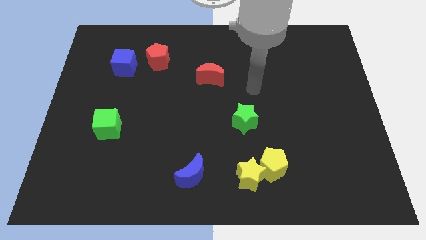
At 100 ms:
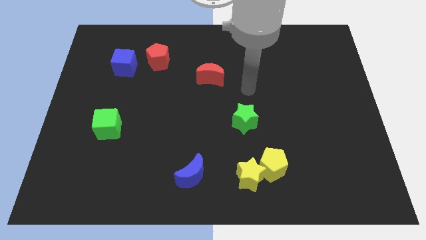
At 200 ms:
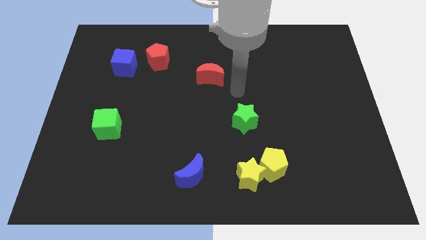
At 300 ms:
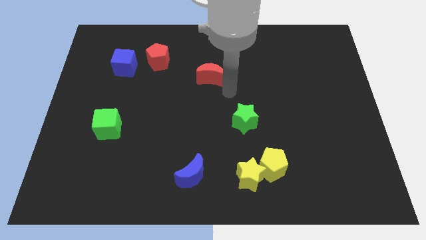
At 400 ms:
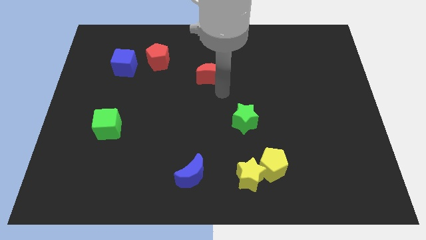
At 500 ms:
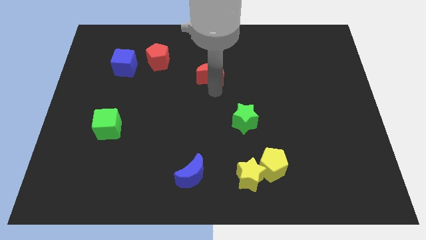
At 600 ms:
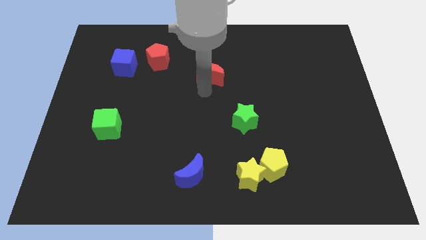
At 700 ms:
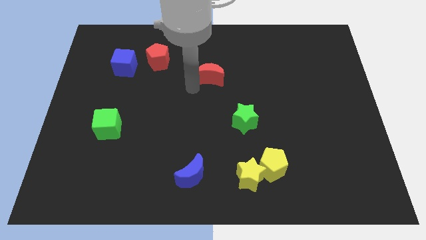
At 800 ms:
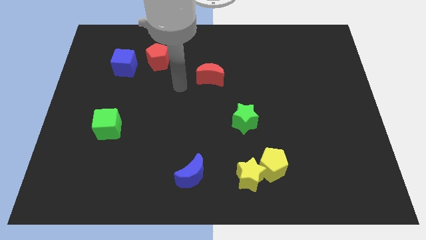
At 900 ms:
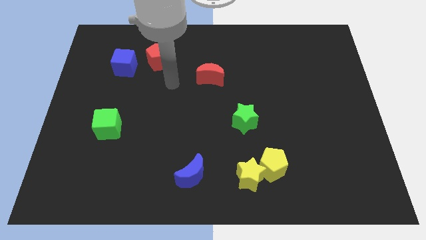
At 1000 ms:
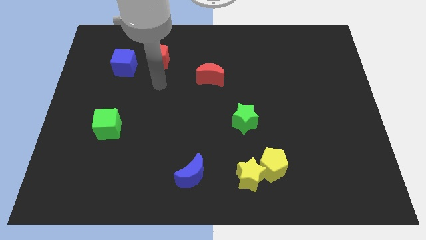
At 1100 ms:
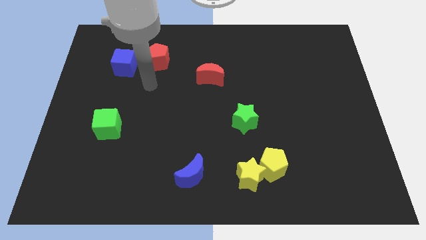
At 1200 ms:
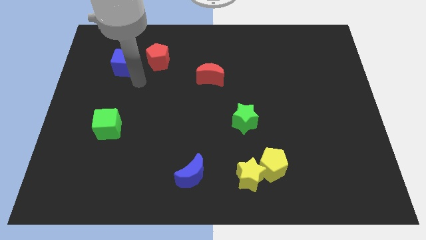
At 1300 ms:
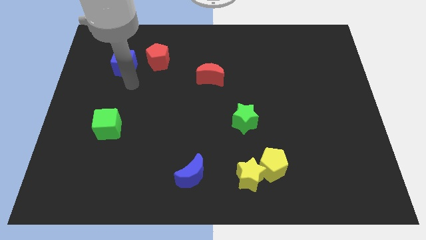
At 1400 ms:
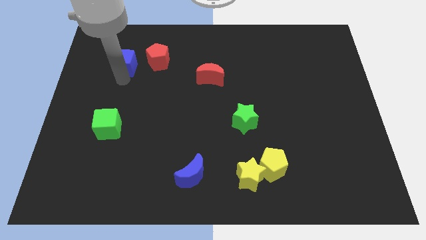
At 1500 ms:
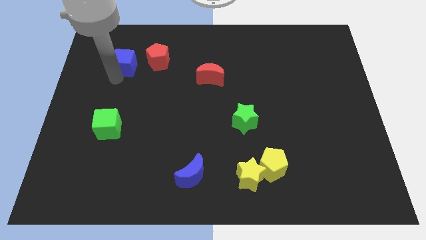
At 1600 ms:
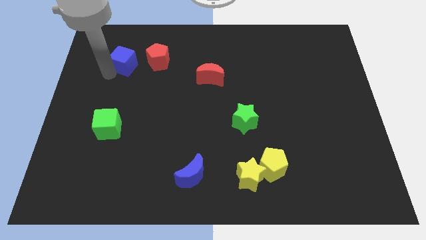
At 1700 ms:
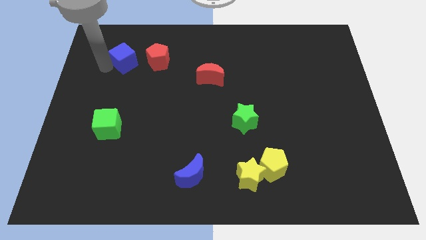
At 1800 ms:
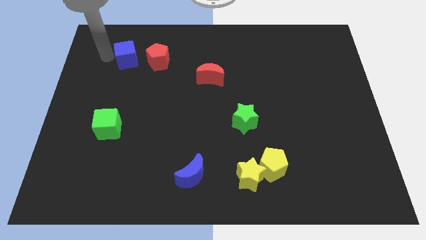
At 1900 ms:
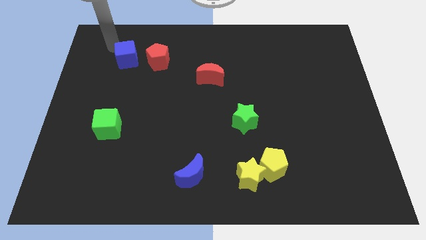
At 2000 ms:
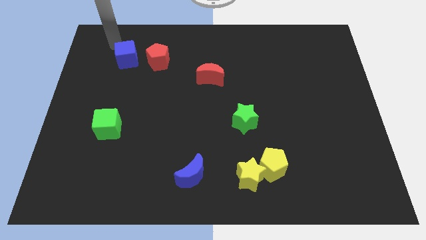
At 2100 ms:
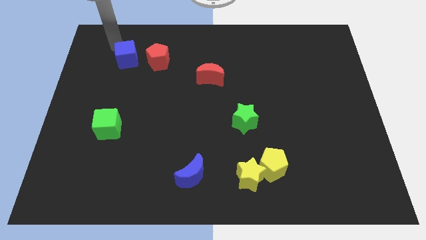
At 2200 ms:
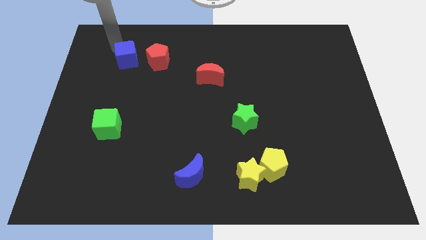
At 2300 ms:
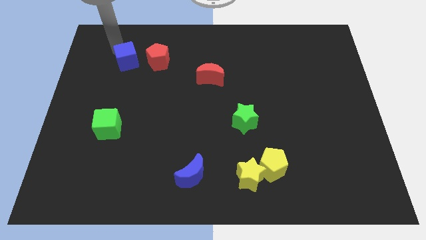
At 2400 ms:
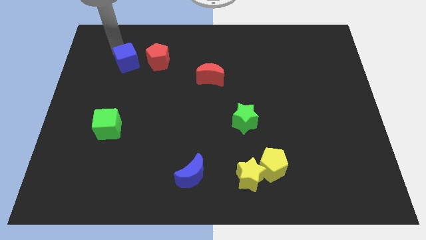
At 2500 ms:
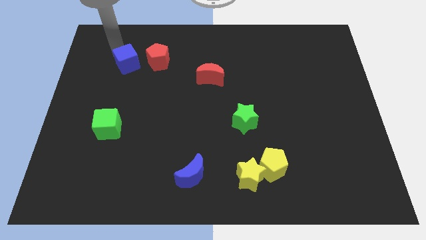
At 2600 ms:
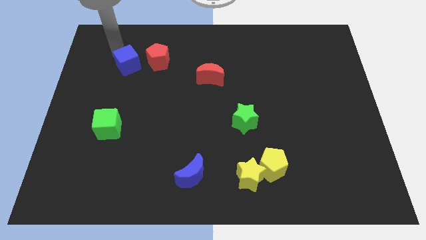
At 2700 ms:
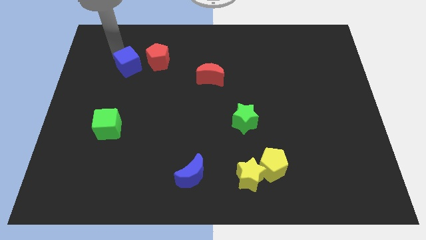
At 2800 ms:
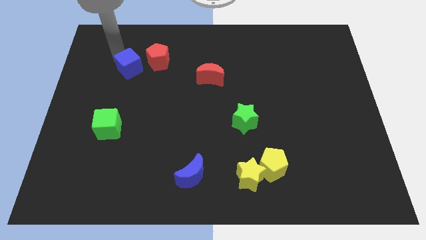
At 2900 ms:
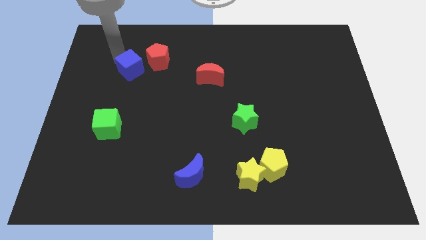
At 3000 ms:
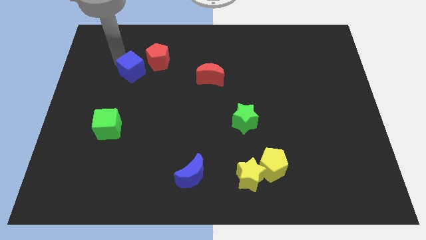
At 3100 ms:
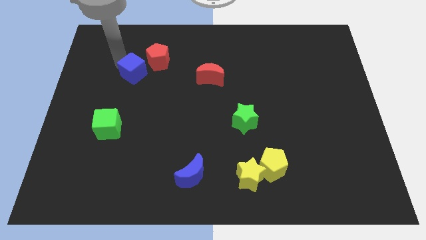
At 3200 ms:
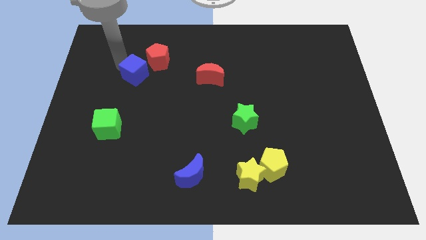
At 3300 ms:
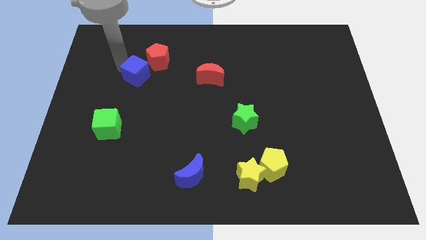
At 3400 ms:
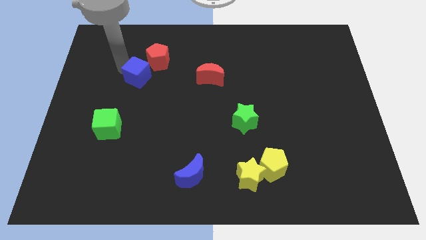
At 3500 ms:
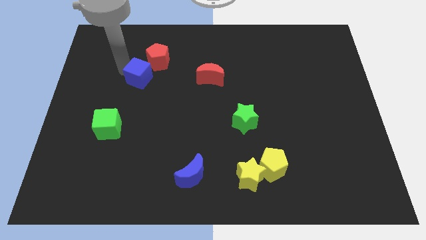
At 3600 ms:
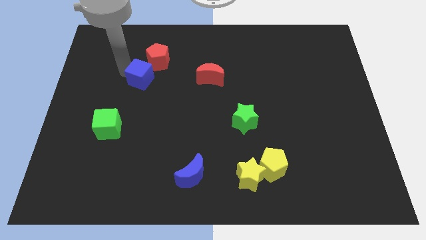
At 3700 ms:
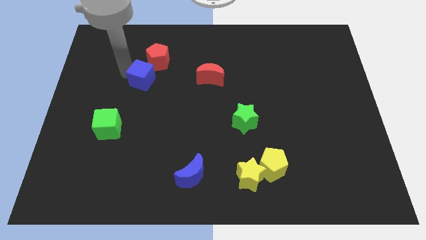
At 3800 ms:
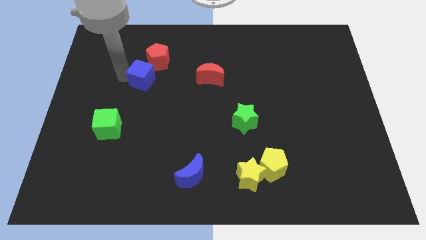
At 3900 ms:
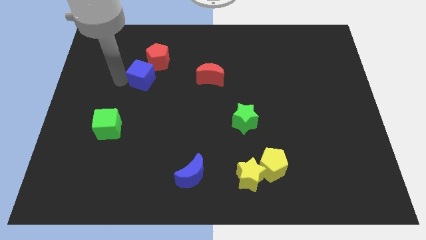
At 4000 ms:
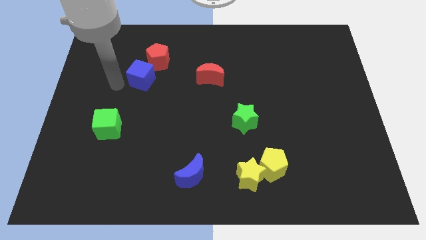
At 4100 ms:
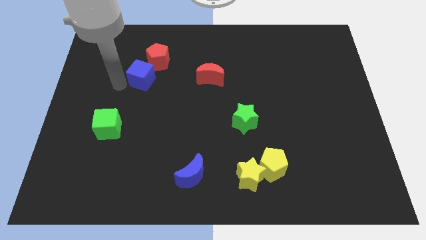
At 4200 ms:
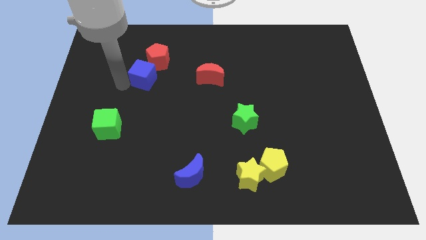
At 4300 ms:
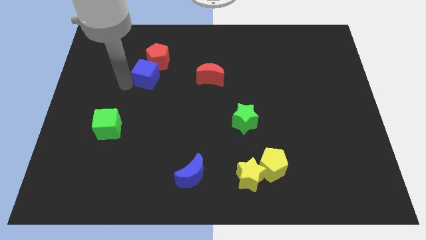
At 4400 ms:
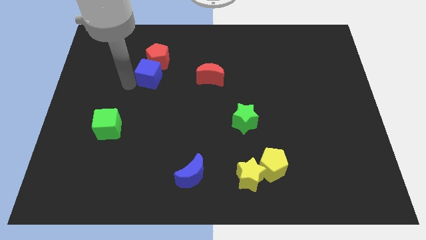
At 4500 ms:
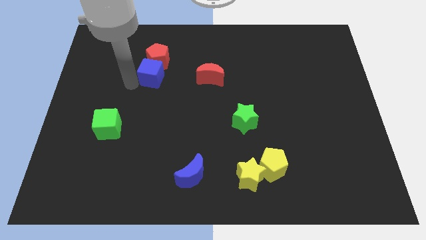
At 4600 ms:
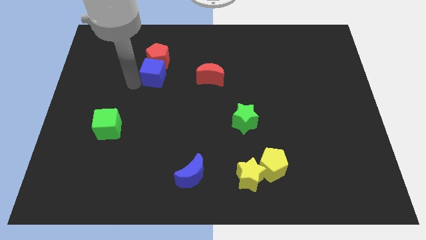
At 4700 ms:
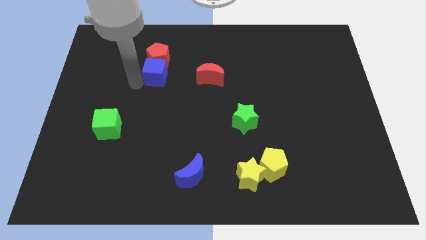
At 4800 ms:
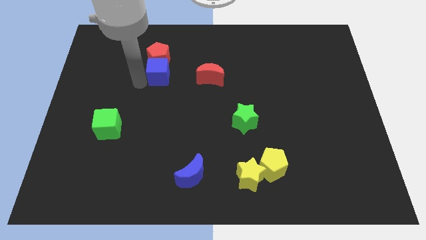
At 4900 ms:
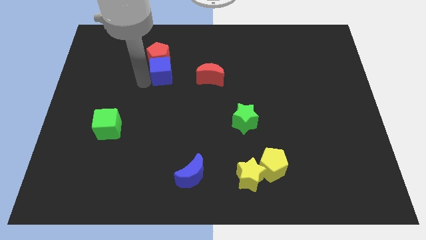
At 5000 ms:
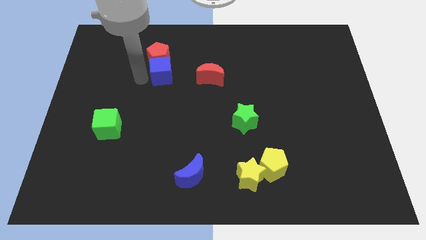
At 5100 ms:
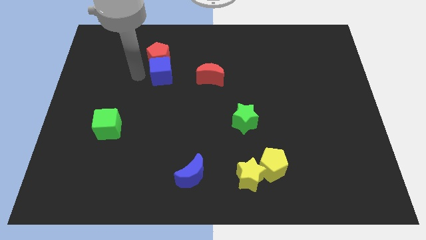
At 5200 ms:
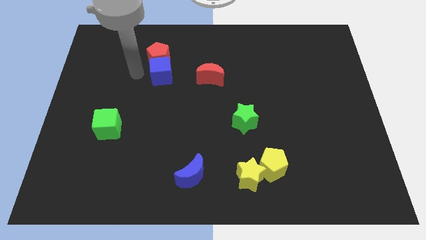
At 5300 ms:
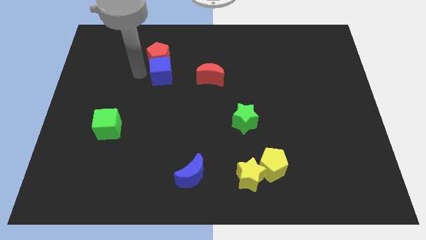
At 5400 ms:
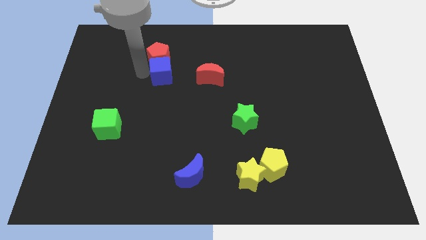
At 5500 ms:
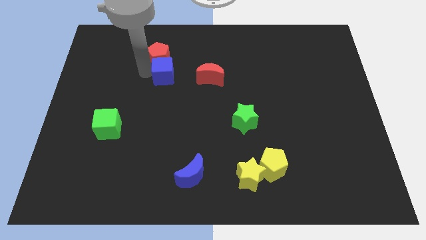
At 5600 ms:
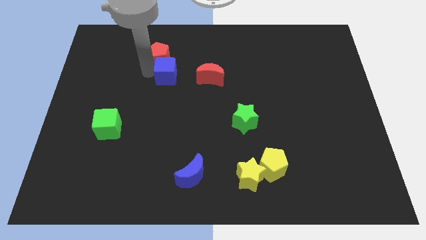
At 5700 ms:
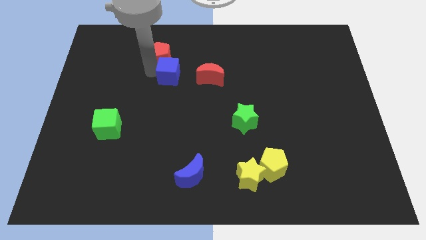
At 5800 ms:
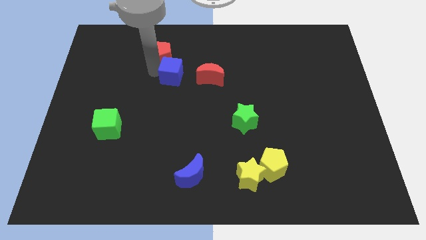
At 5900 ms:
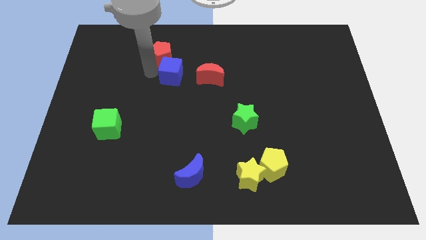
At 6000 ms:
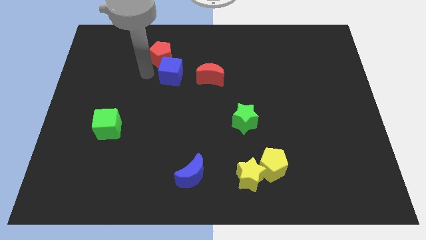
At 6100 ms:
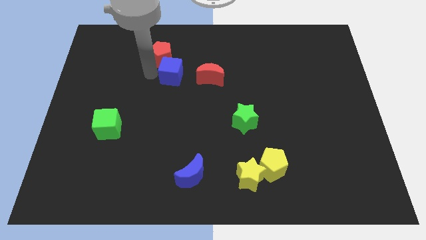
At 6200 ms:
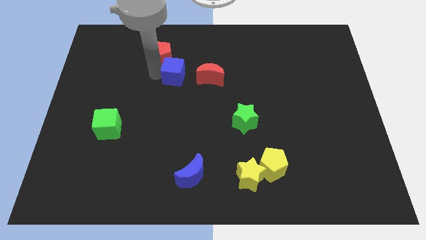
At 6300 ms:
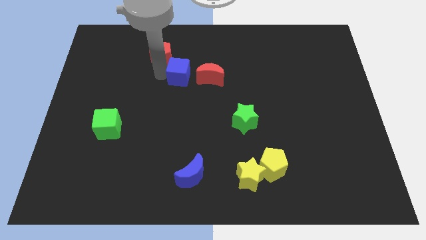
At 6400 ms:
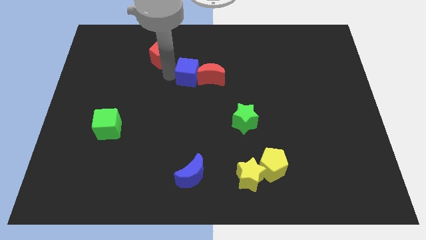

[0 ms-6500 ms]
slide the blue cube to the red moon

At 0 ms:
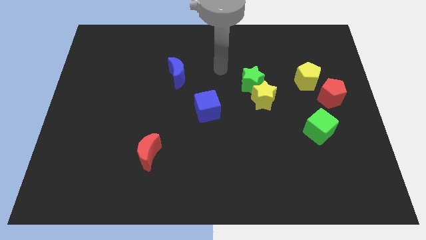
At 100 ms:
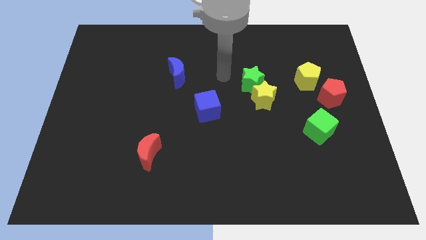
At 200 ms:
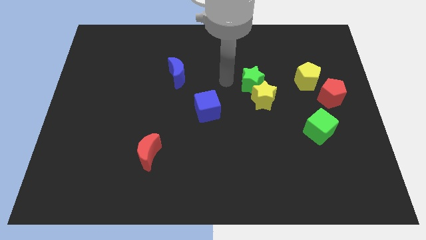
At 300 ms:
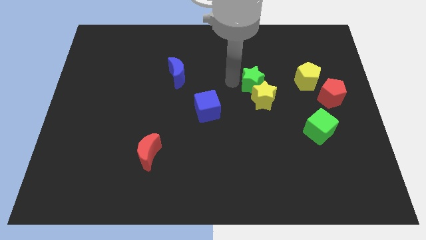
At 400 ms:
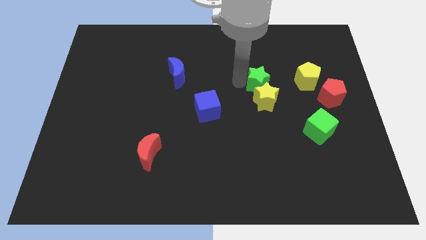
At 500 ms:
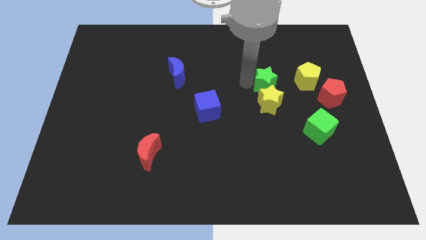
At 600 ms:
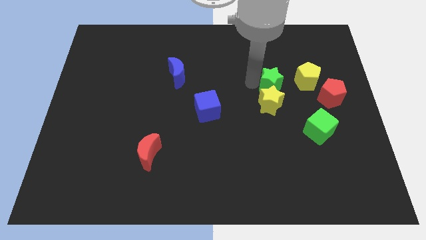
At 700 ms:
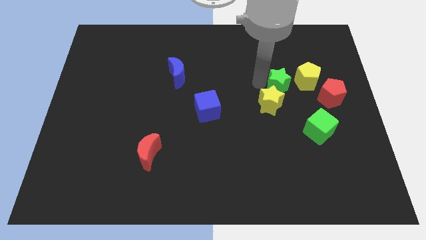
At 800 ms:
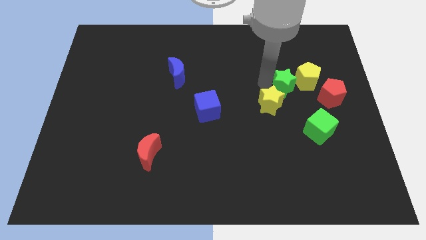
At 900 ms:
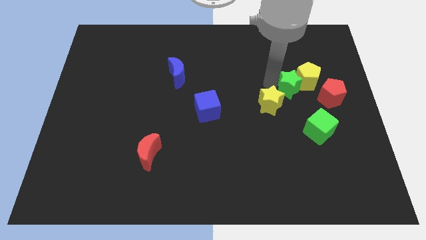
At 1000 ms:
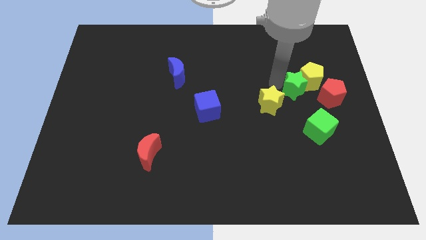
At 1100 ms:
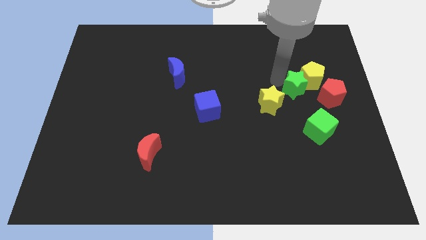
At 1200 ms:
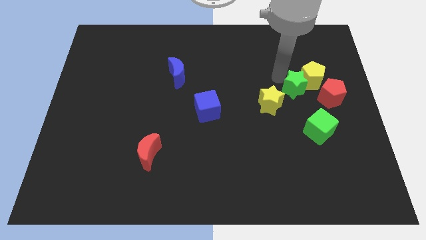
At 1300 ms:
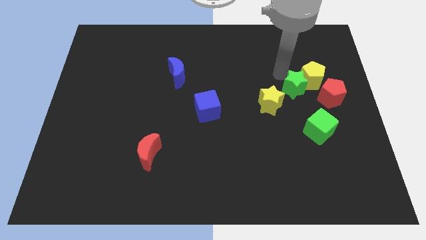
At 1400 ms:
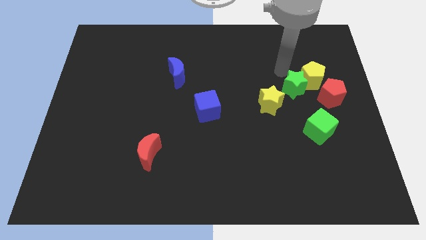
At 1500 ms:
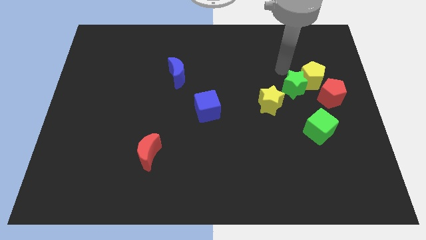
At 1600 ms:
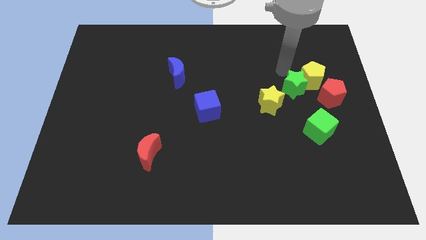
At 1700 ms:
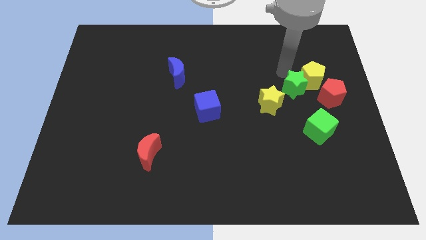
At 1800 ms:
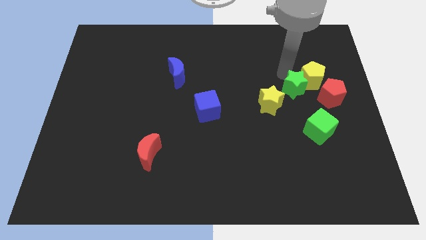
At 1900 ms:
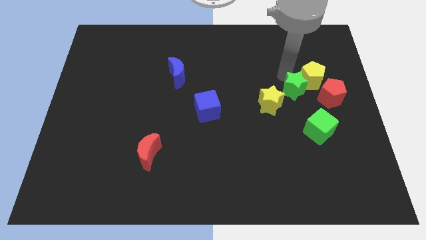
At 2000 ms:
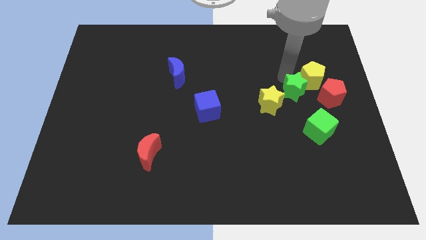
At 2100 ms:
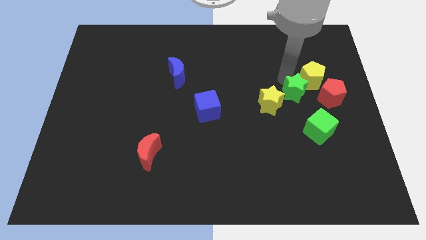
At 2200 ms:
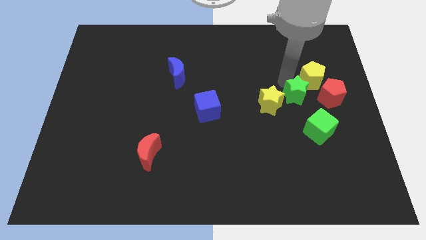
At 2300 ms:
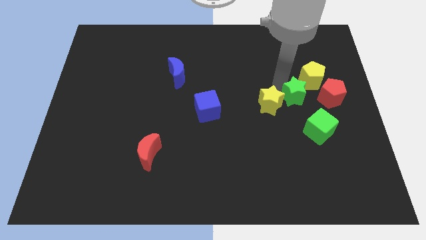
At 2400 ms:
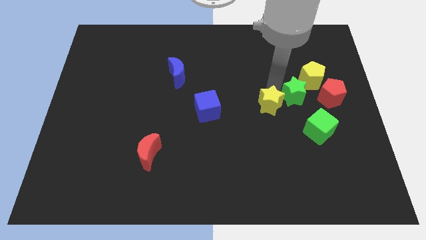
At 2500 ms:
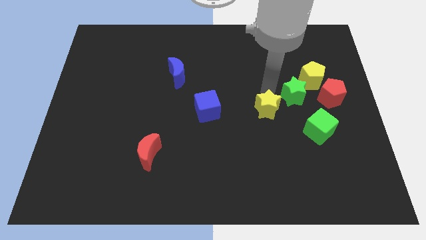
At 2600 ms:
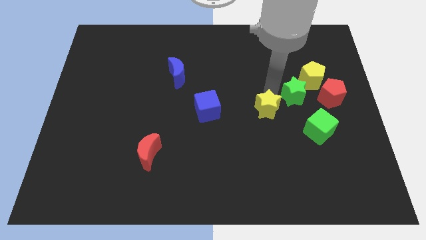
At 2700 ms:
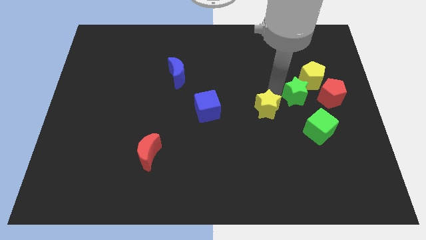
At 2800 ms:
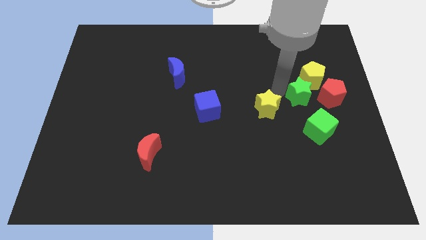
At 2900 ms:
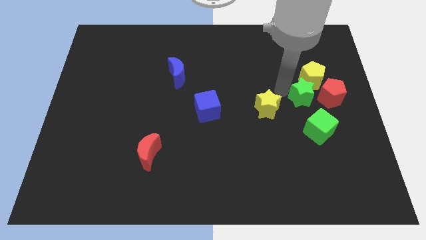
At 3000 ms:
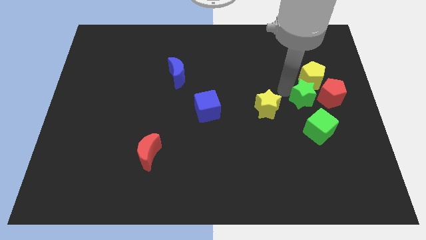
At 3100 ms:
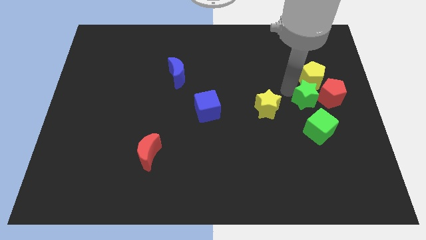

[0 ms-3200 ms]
slide the green star close to the red pentagon
